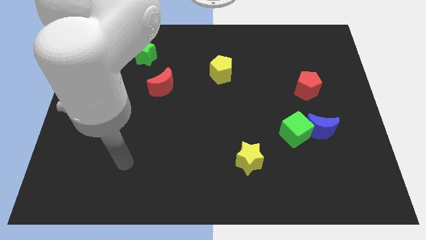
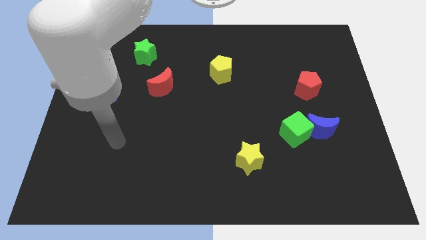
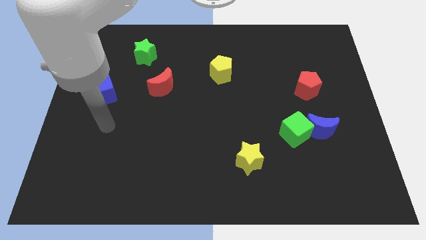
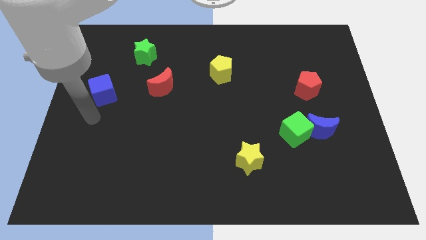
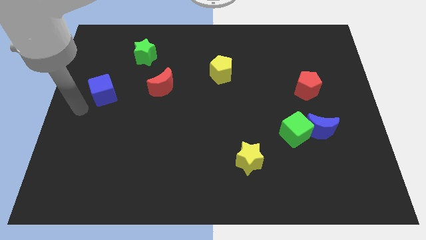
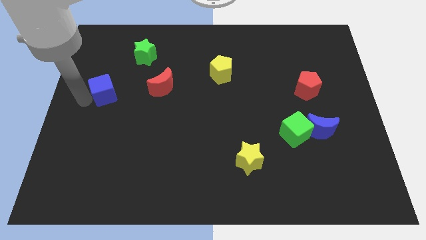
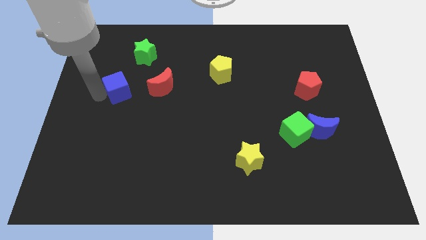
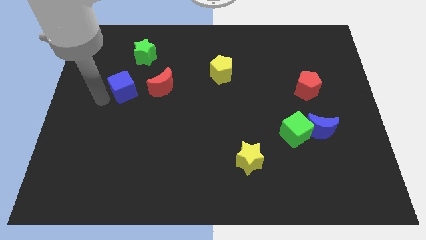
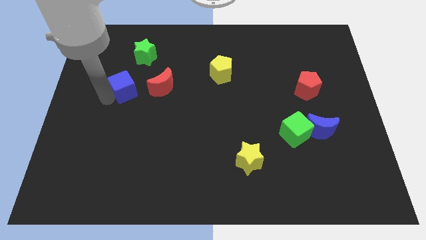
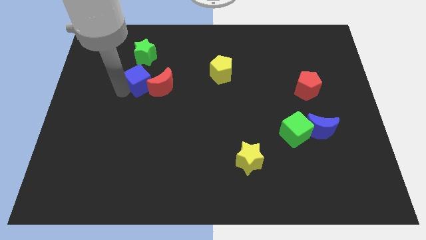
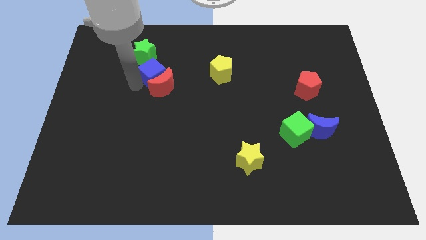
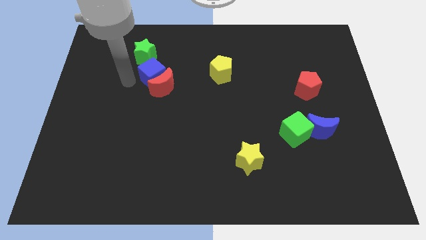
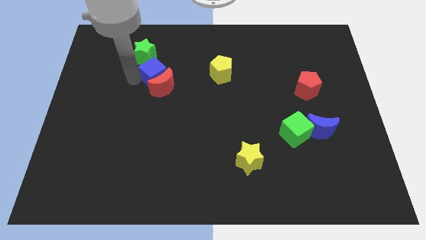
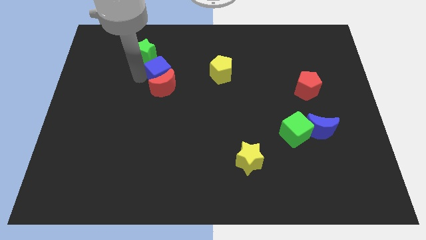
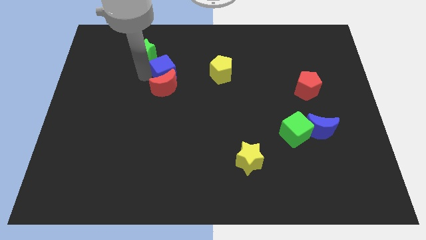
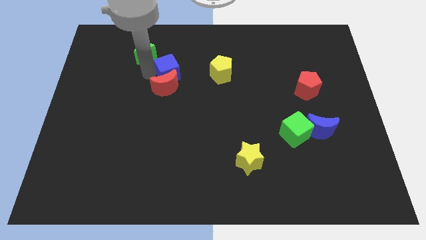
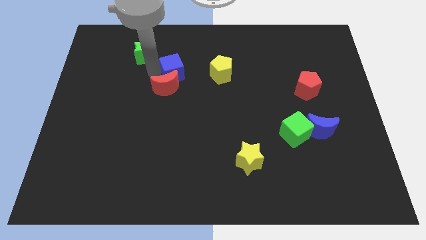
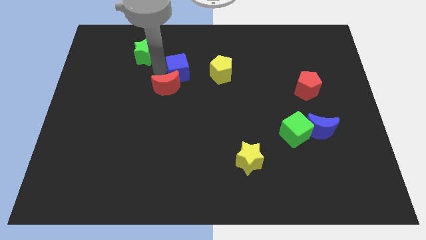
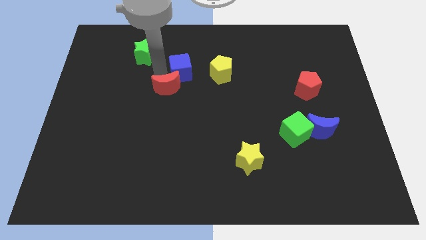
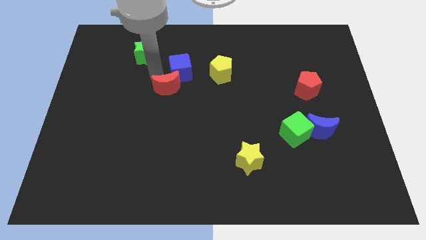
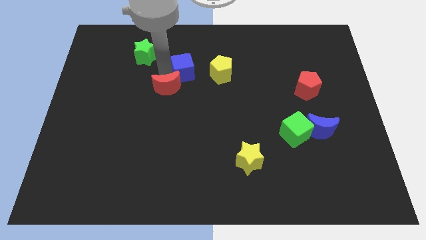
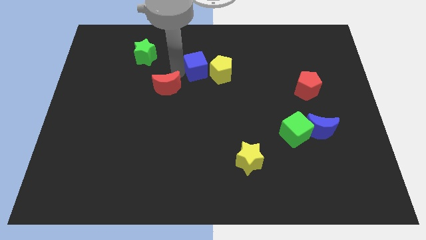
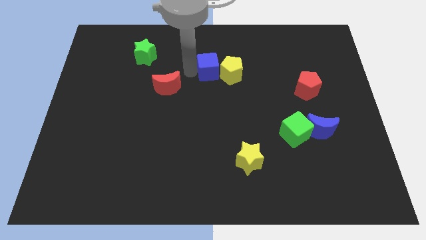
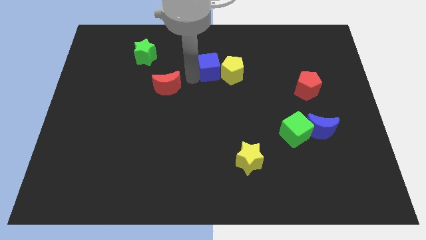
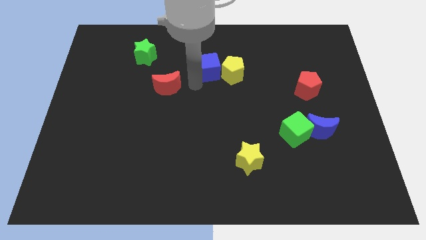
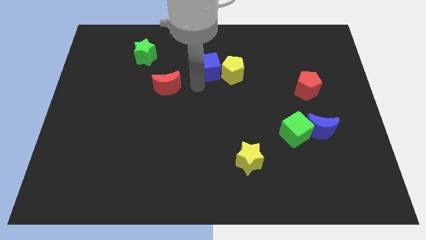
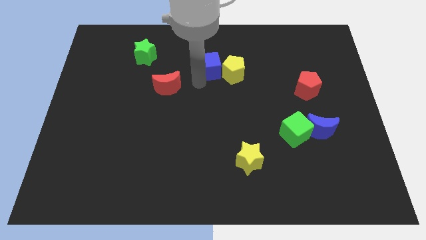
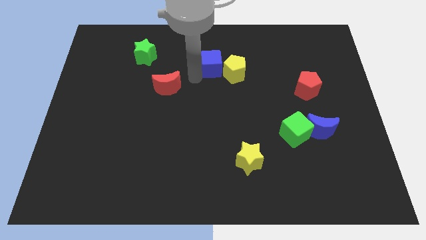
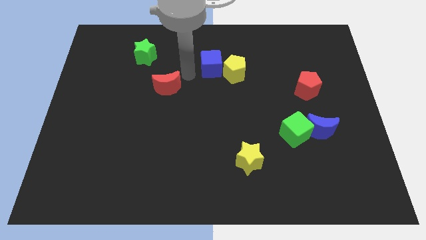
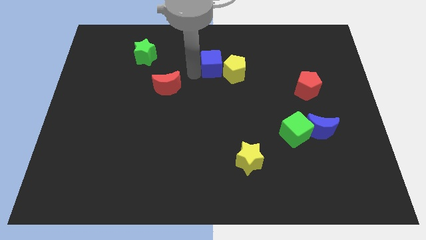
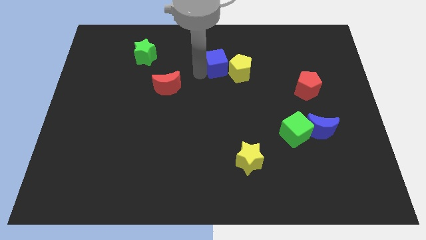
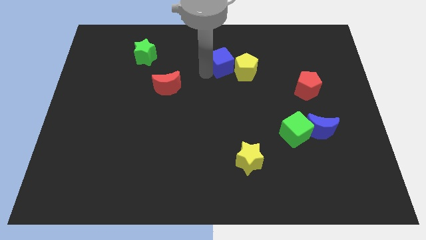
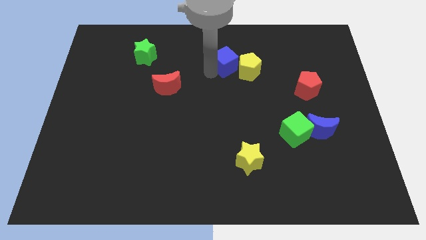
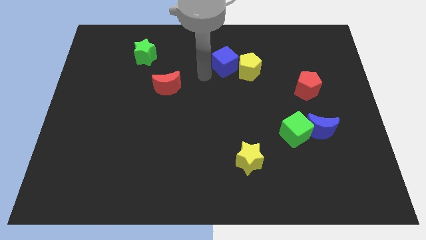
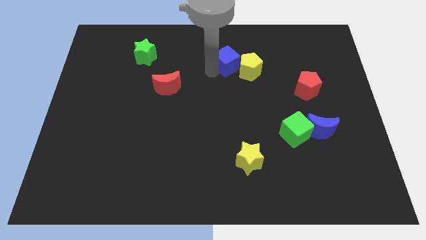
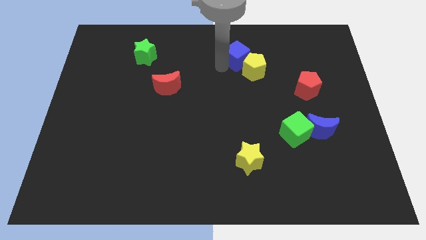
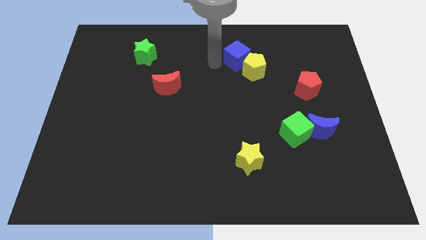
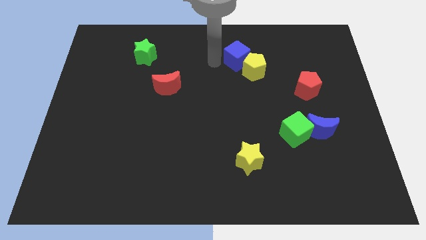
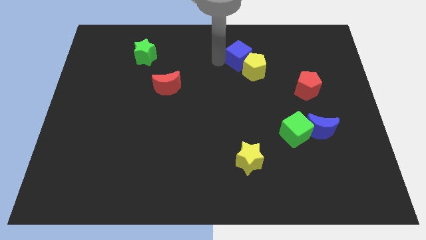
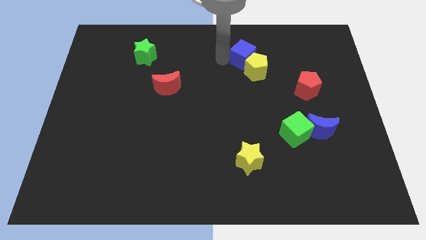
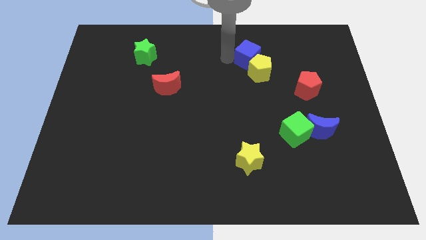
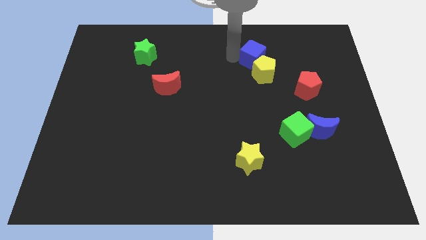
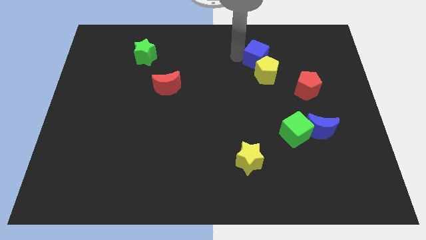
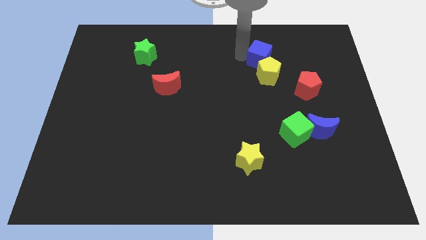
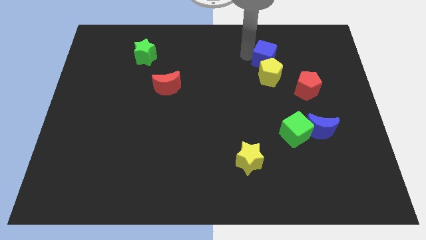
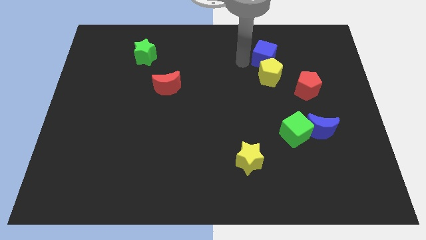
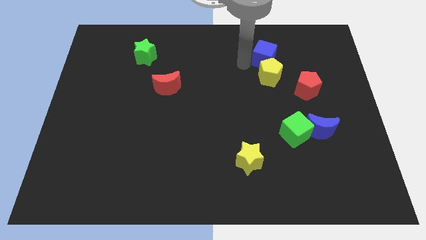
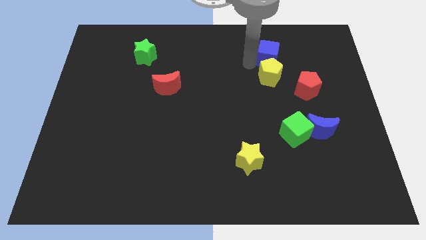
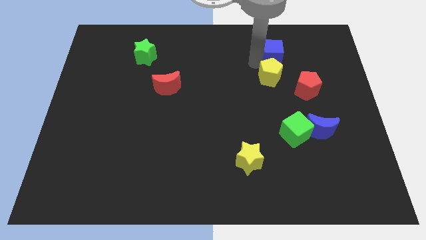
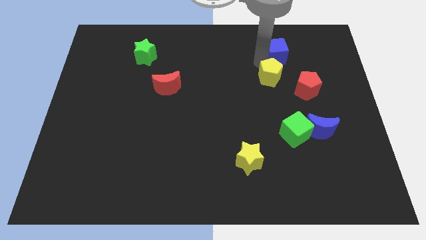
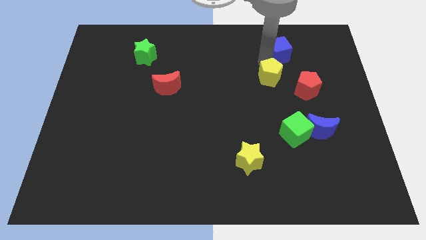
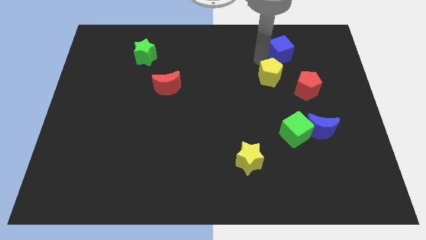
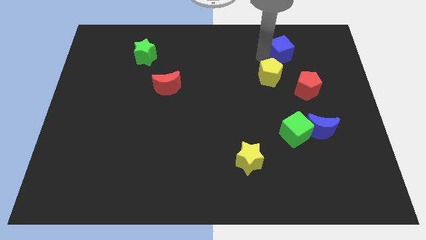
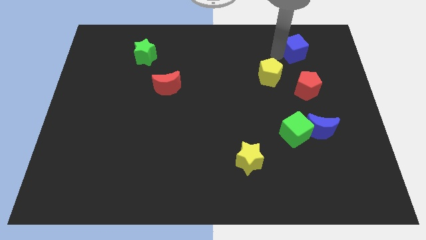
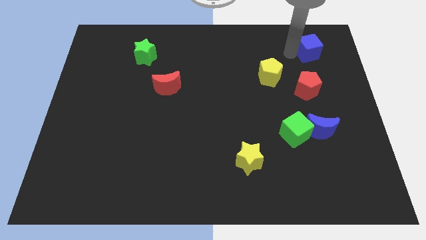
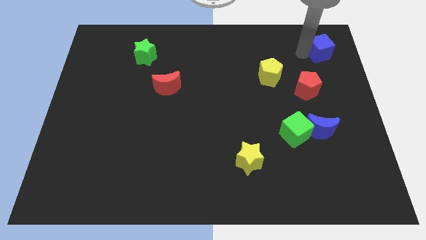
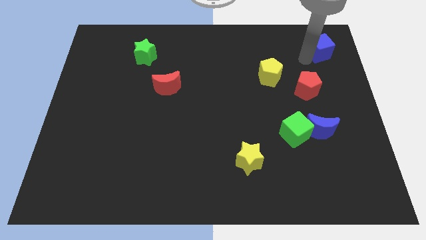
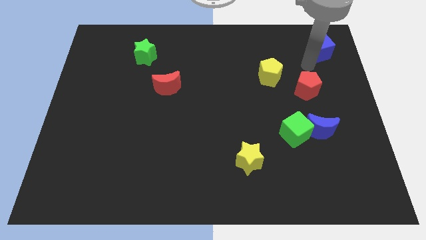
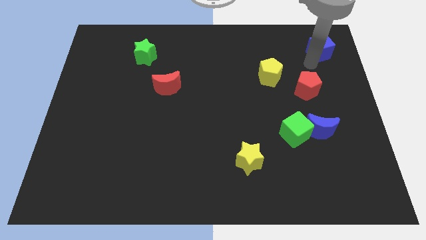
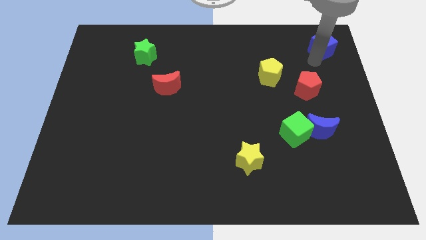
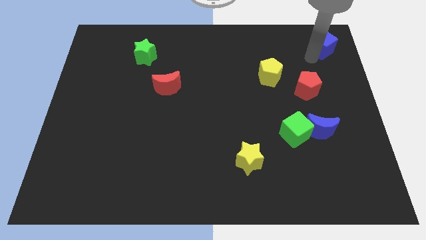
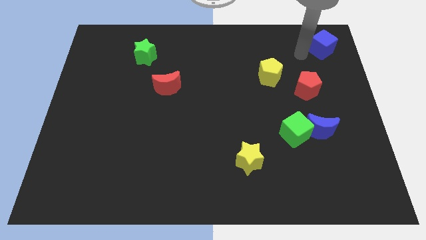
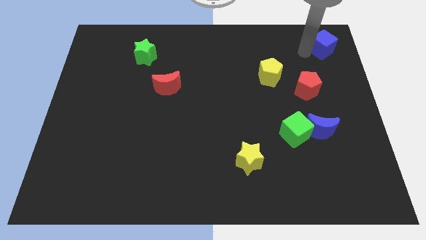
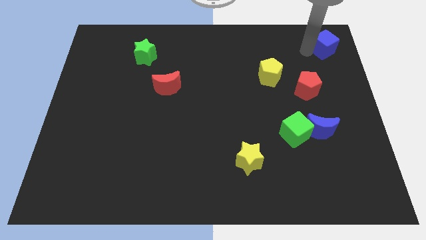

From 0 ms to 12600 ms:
move the blue cube to the top right of the board
